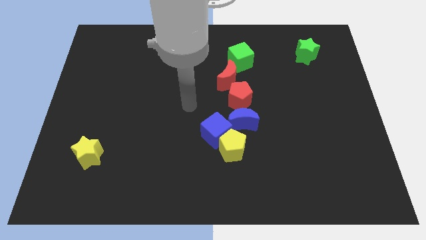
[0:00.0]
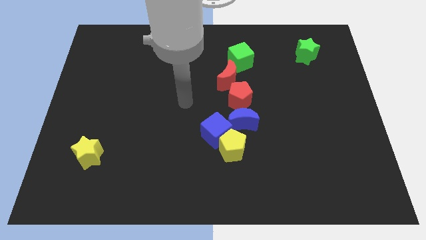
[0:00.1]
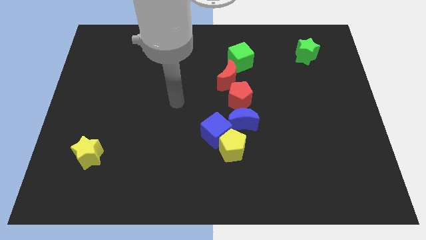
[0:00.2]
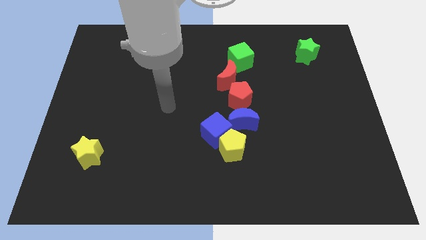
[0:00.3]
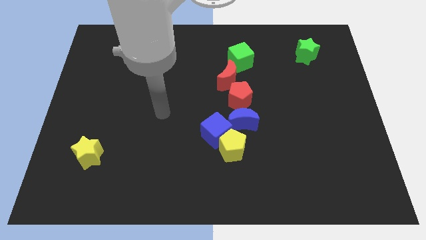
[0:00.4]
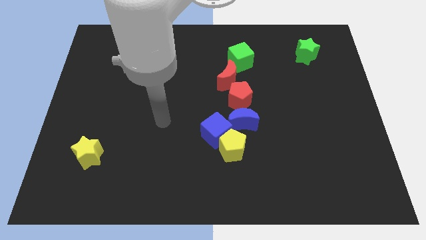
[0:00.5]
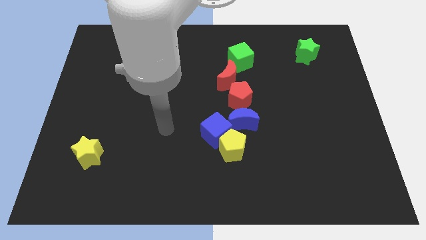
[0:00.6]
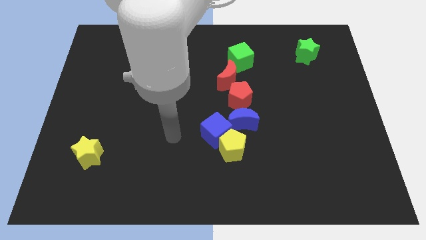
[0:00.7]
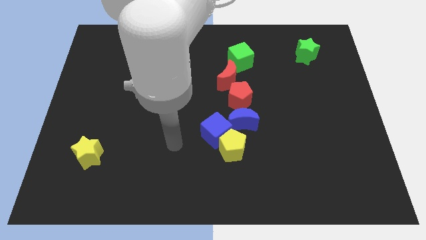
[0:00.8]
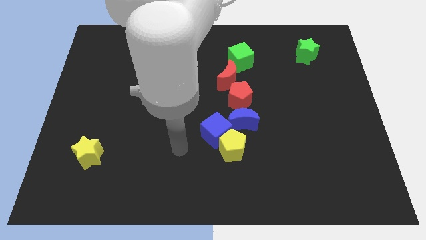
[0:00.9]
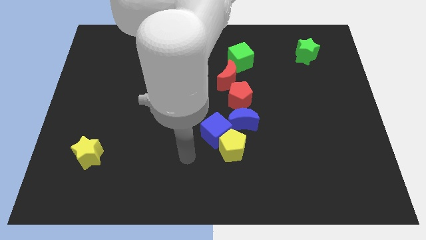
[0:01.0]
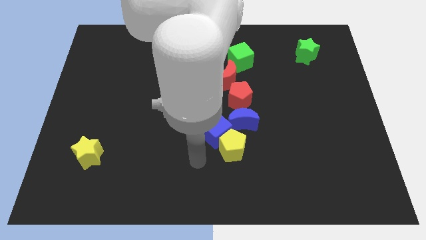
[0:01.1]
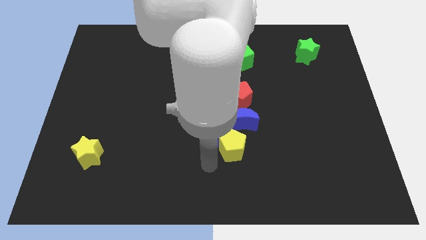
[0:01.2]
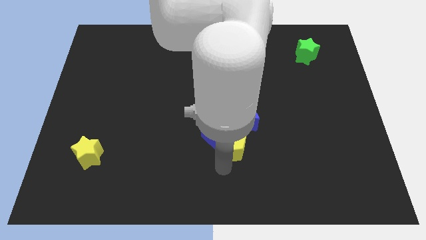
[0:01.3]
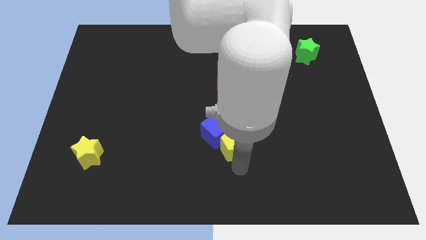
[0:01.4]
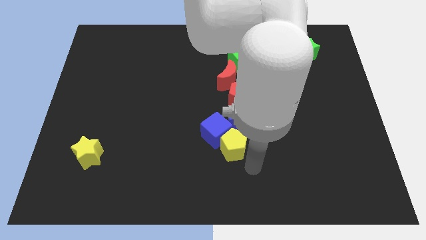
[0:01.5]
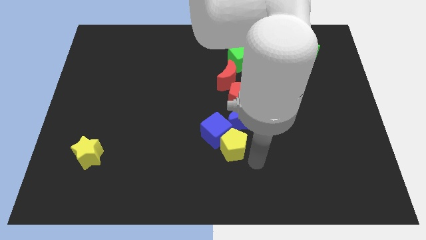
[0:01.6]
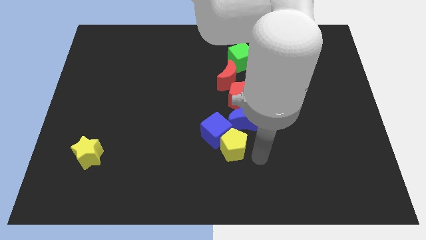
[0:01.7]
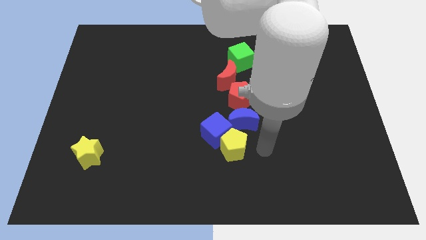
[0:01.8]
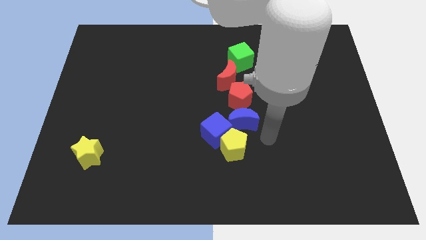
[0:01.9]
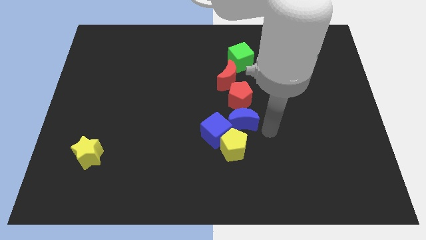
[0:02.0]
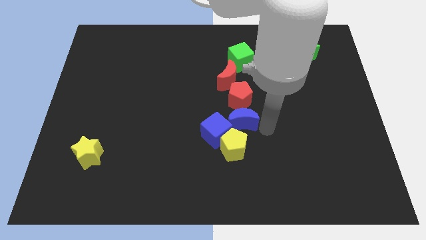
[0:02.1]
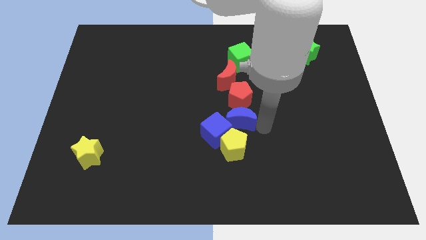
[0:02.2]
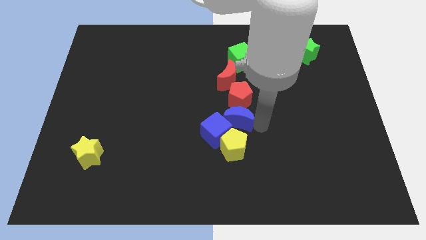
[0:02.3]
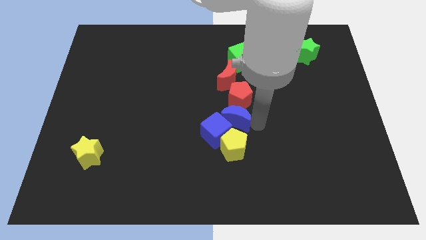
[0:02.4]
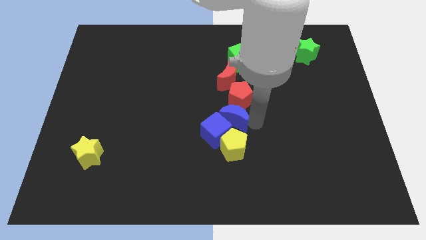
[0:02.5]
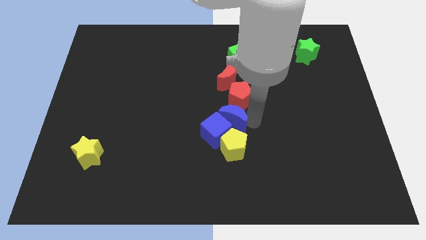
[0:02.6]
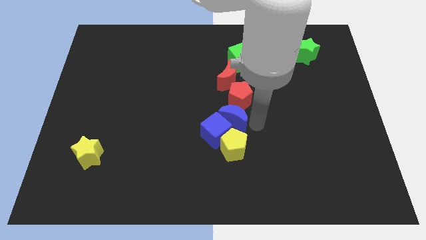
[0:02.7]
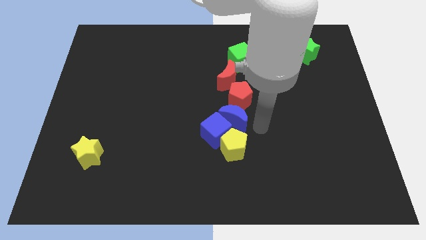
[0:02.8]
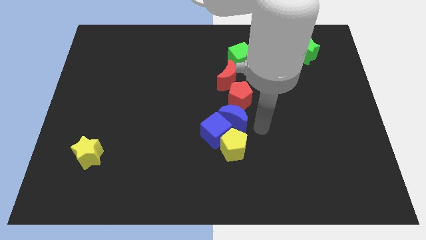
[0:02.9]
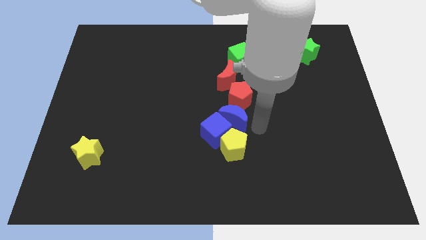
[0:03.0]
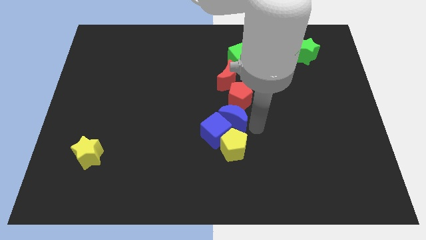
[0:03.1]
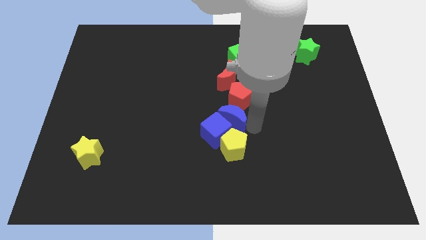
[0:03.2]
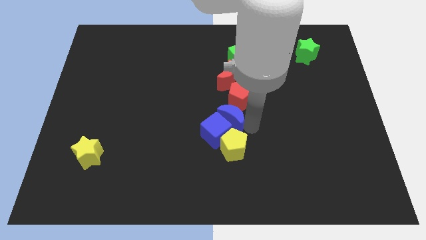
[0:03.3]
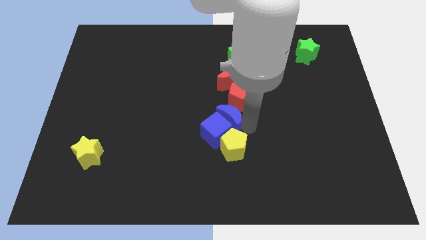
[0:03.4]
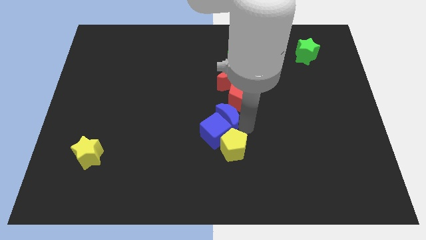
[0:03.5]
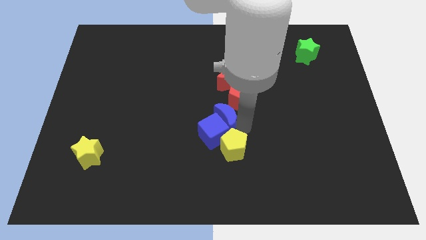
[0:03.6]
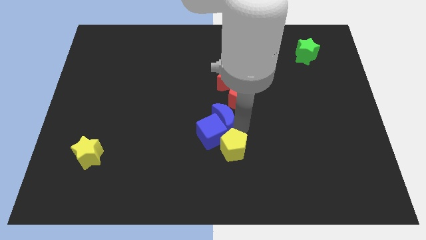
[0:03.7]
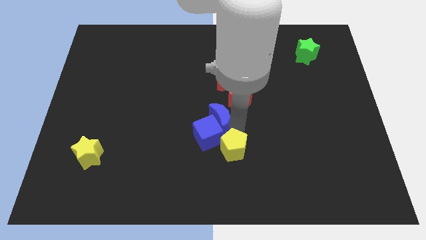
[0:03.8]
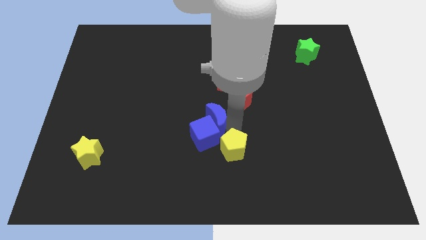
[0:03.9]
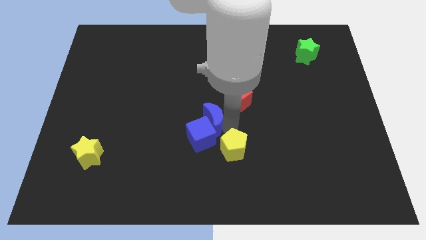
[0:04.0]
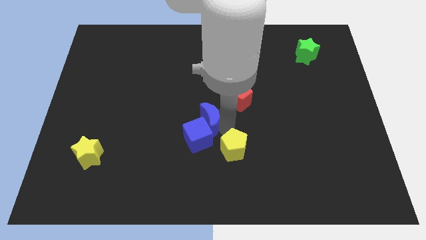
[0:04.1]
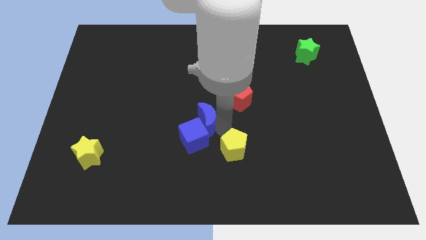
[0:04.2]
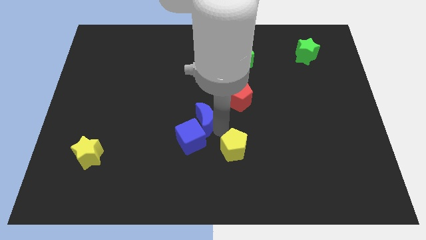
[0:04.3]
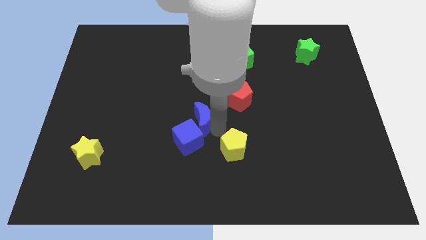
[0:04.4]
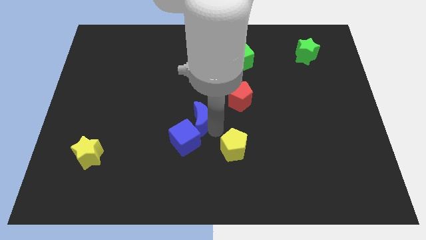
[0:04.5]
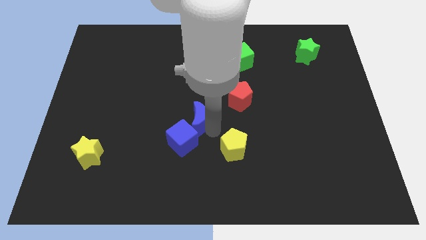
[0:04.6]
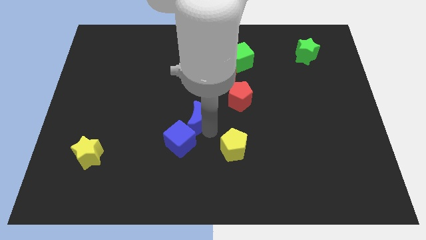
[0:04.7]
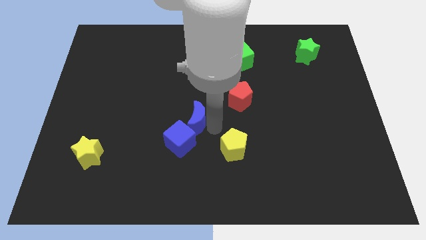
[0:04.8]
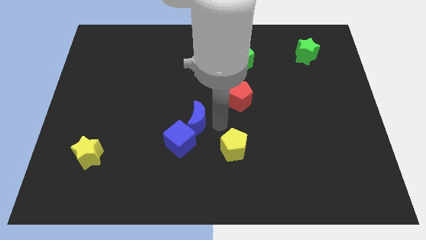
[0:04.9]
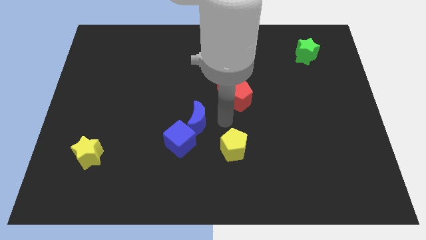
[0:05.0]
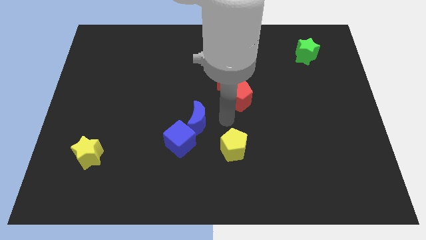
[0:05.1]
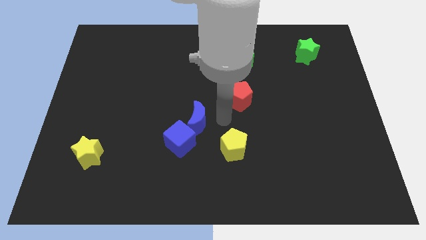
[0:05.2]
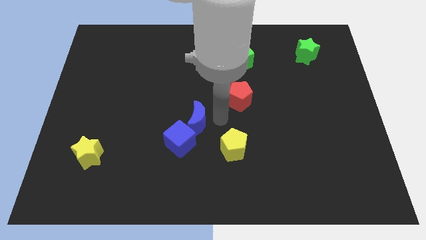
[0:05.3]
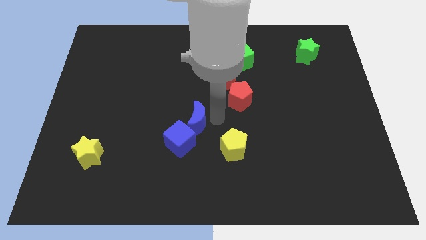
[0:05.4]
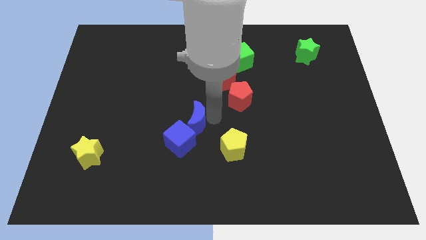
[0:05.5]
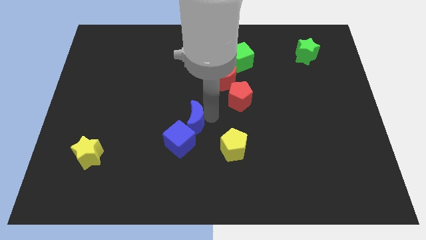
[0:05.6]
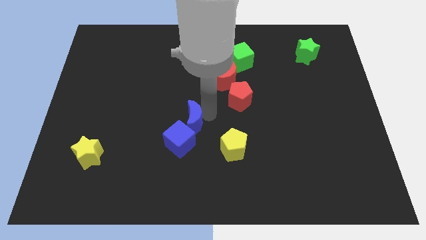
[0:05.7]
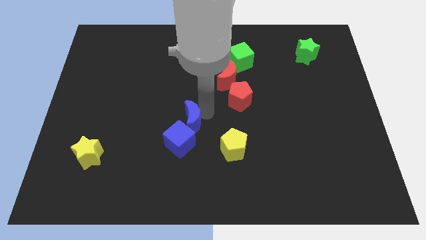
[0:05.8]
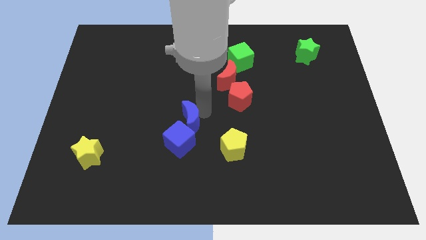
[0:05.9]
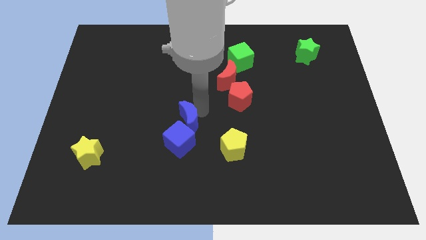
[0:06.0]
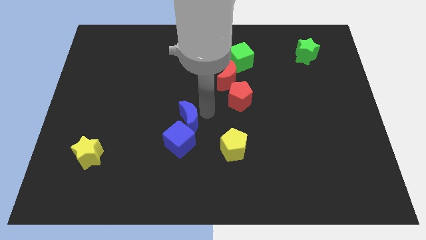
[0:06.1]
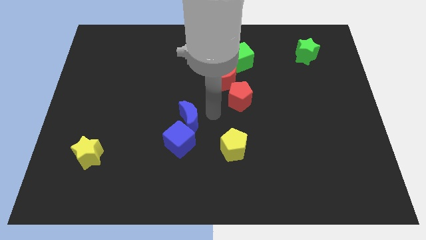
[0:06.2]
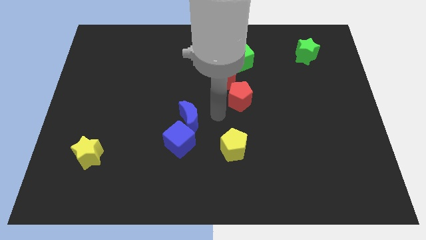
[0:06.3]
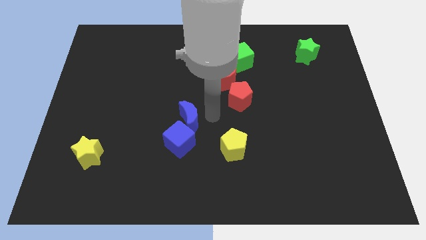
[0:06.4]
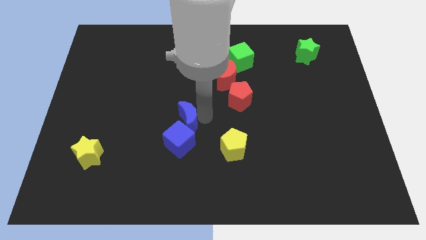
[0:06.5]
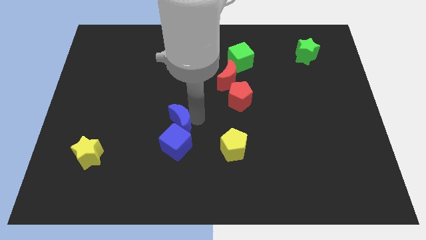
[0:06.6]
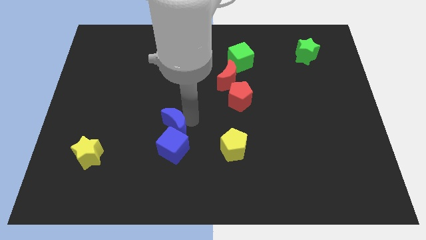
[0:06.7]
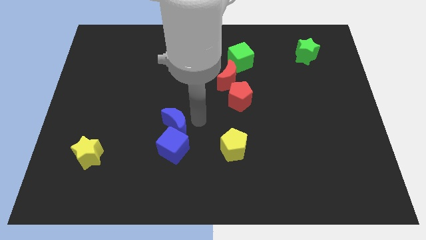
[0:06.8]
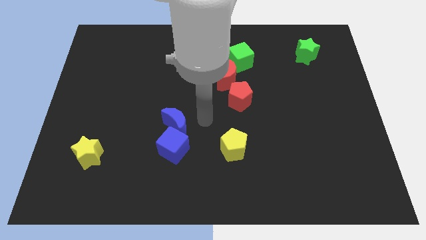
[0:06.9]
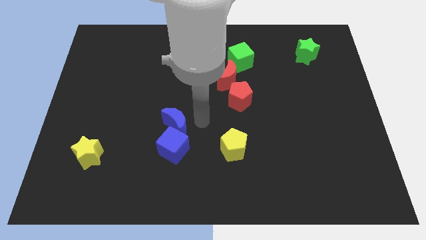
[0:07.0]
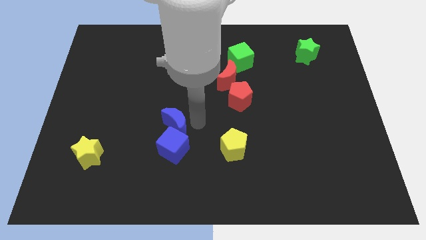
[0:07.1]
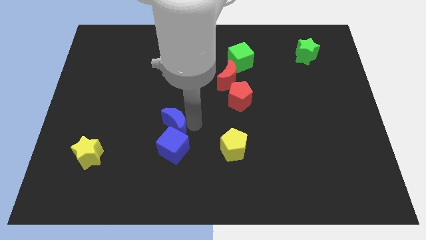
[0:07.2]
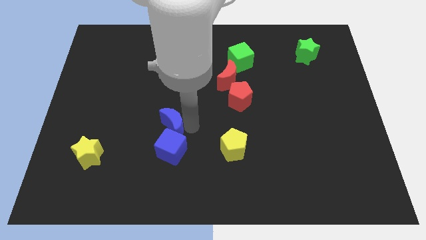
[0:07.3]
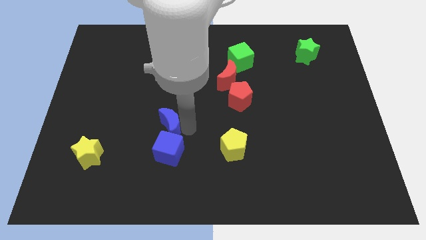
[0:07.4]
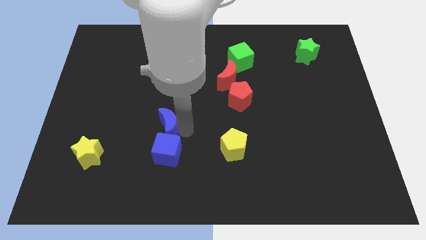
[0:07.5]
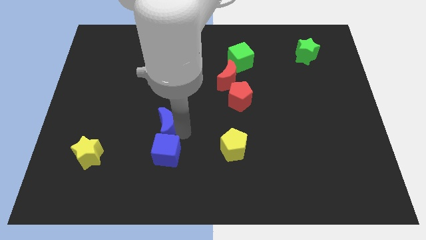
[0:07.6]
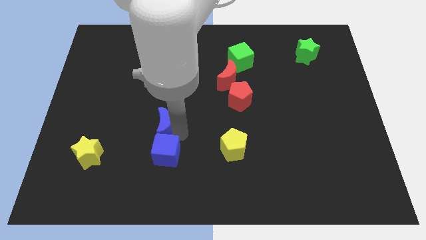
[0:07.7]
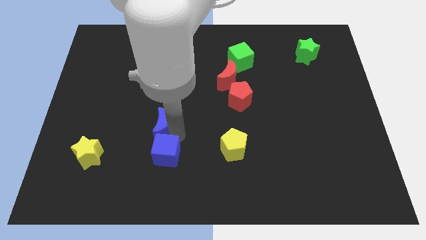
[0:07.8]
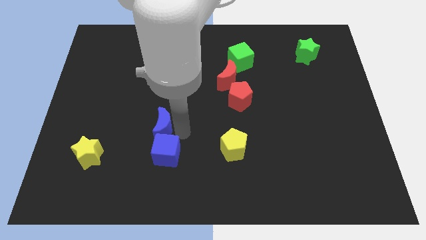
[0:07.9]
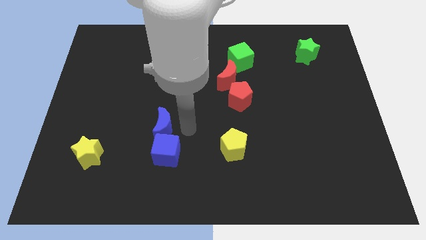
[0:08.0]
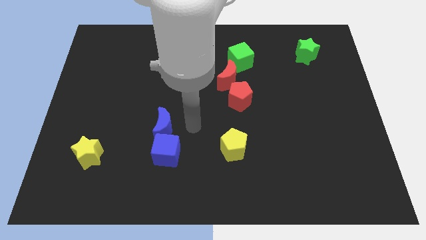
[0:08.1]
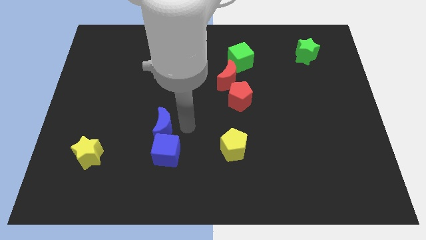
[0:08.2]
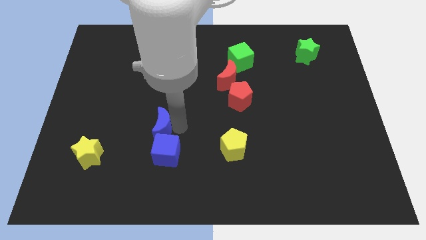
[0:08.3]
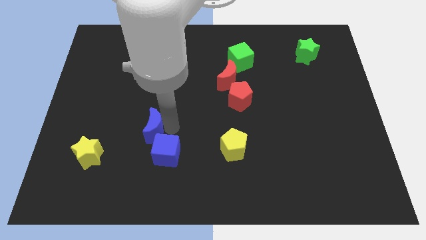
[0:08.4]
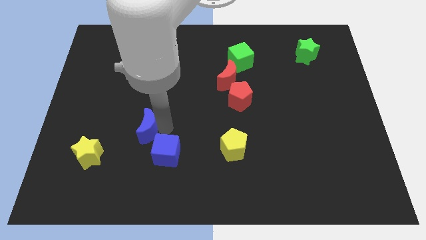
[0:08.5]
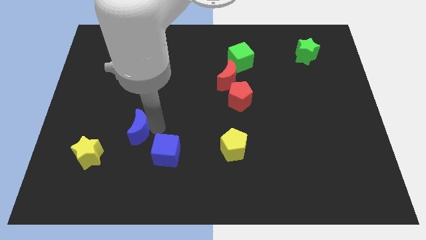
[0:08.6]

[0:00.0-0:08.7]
move the blue moon to the top right side of the yellow star
